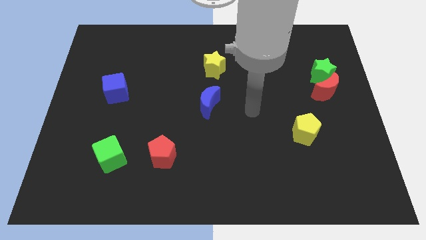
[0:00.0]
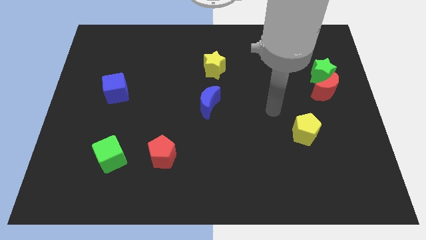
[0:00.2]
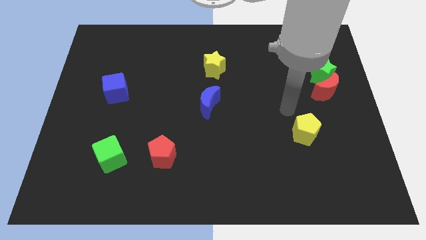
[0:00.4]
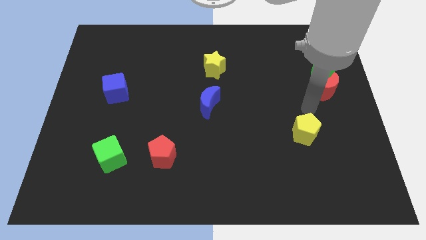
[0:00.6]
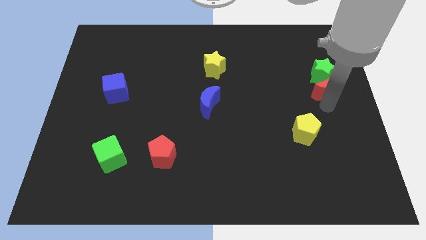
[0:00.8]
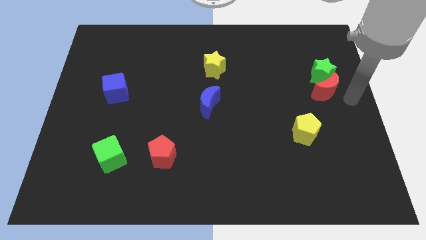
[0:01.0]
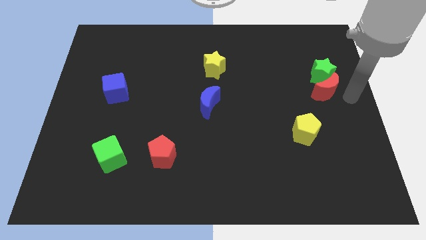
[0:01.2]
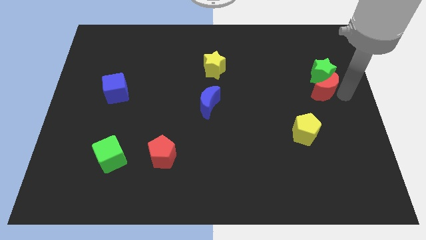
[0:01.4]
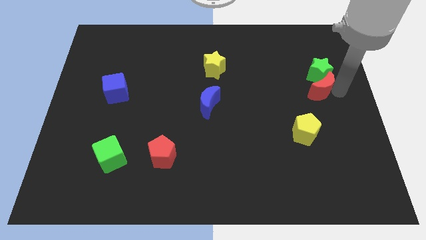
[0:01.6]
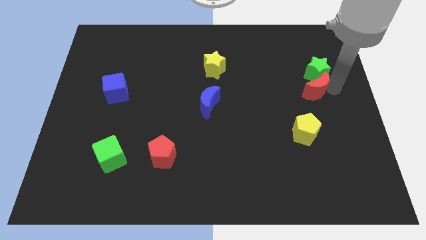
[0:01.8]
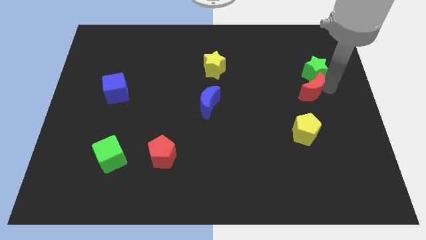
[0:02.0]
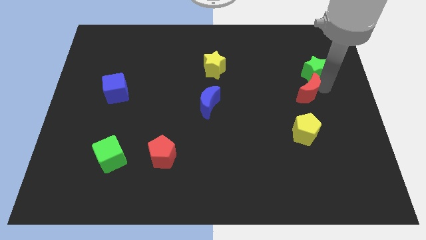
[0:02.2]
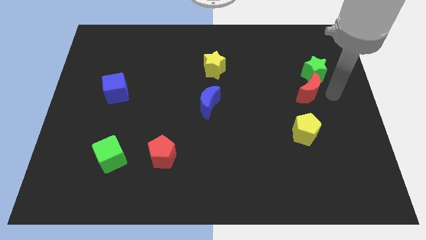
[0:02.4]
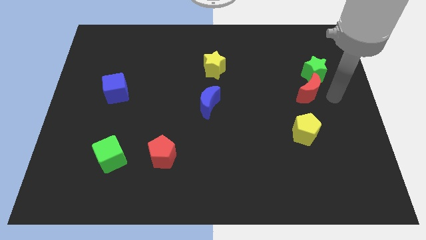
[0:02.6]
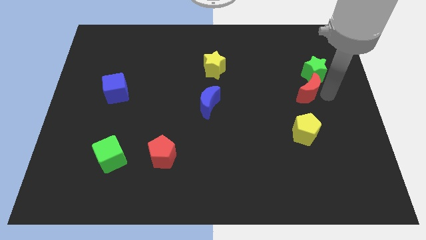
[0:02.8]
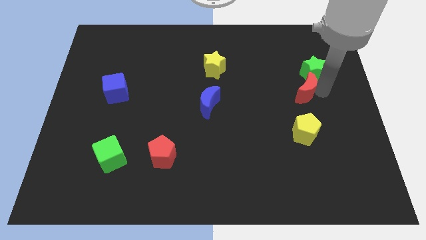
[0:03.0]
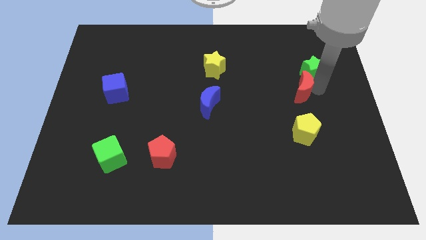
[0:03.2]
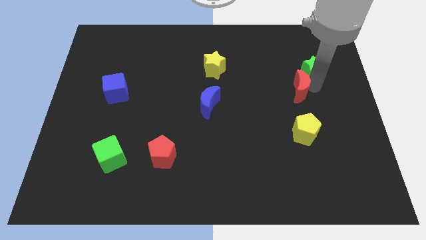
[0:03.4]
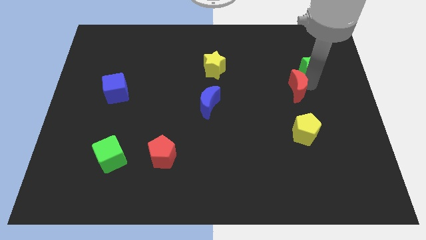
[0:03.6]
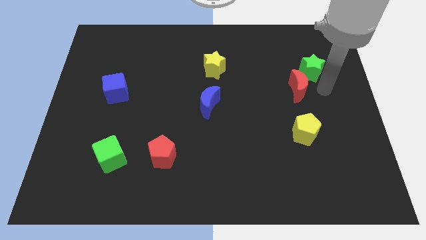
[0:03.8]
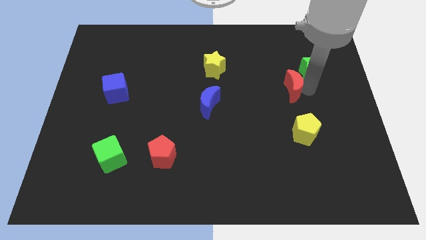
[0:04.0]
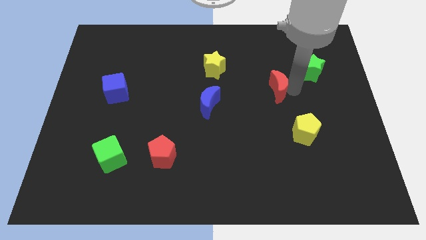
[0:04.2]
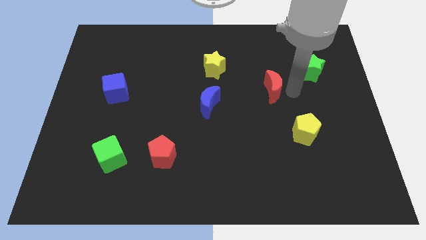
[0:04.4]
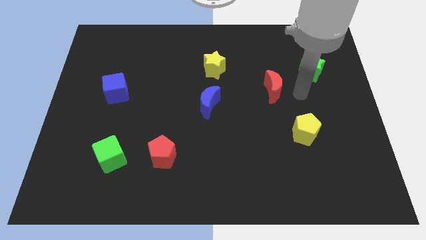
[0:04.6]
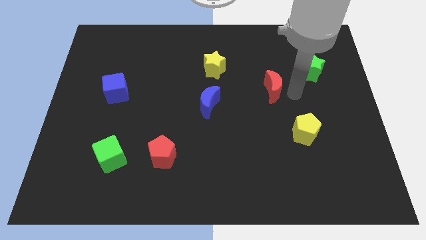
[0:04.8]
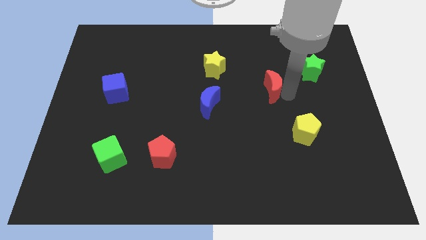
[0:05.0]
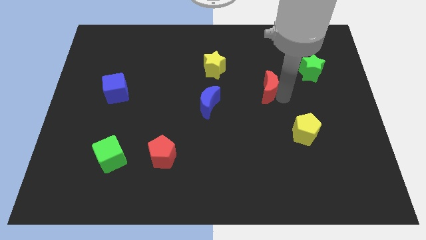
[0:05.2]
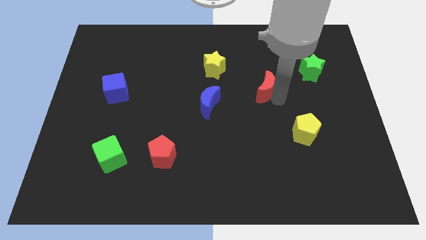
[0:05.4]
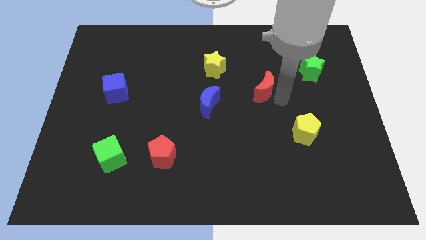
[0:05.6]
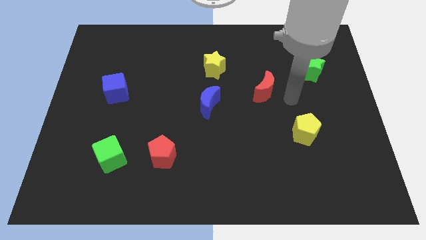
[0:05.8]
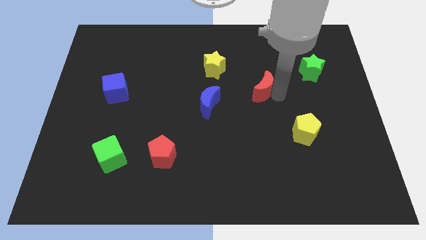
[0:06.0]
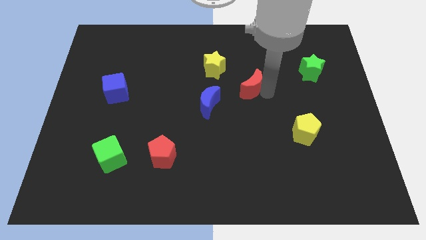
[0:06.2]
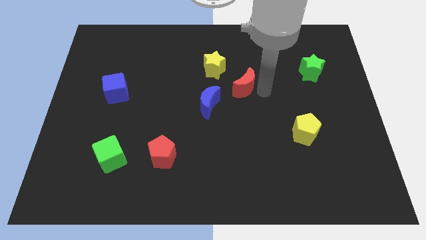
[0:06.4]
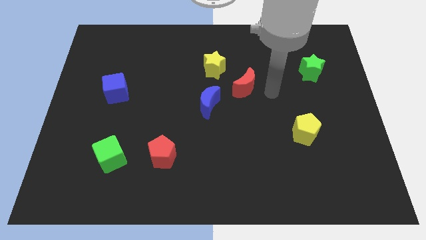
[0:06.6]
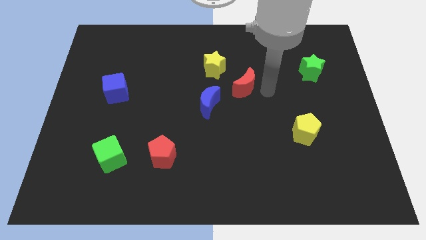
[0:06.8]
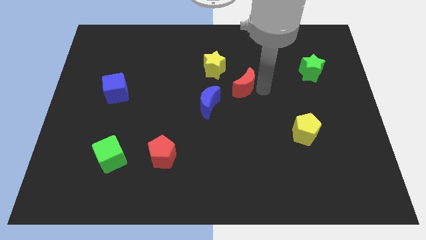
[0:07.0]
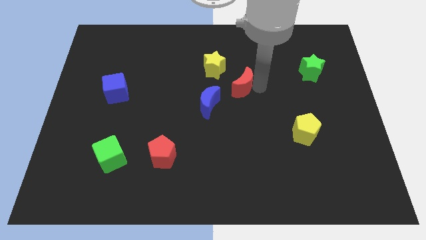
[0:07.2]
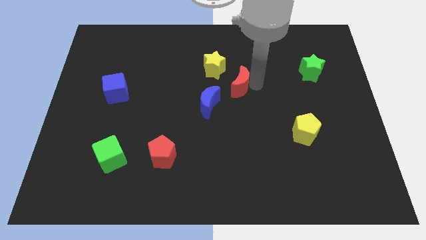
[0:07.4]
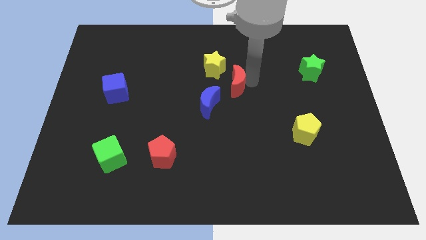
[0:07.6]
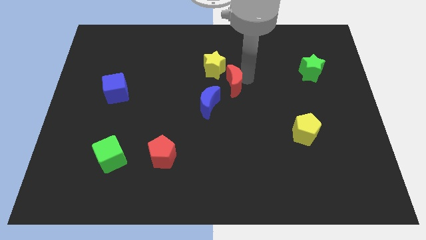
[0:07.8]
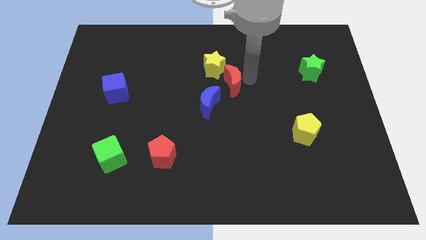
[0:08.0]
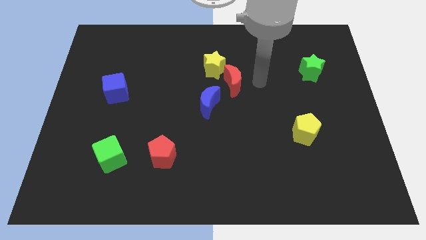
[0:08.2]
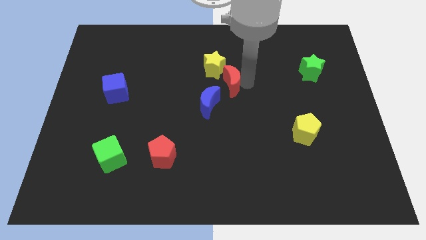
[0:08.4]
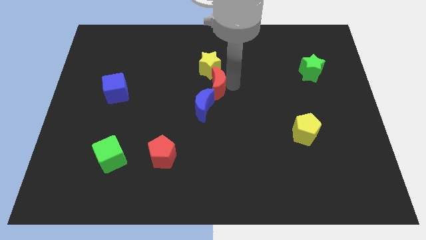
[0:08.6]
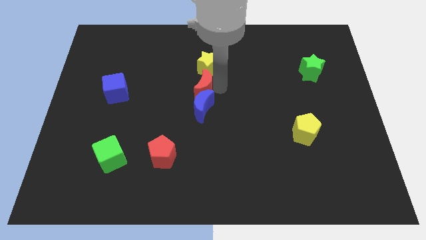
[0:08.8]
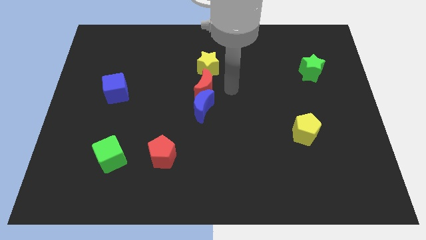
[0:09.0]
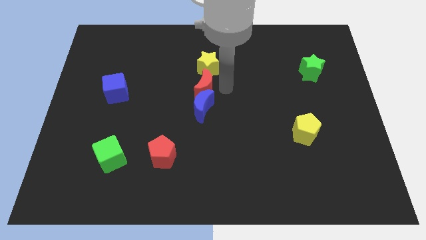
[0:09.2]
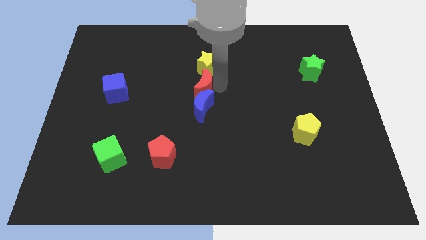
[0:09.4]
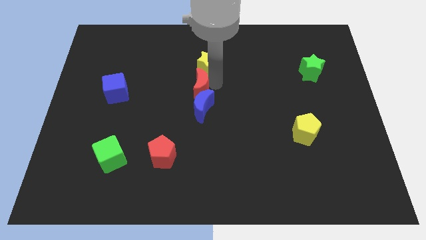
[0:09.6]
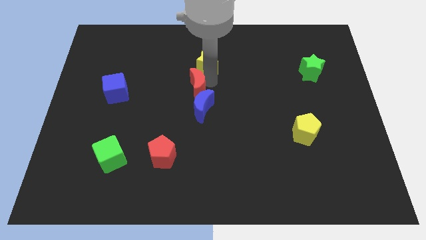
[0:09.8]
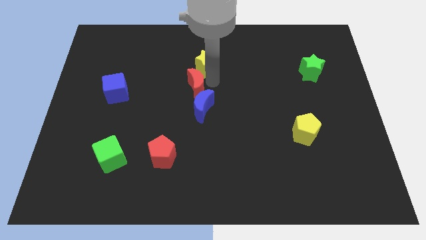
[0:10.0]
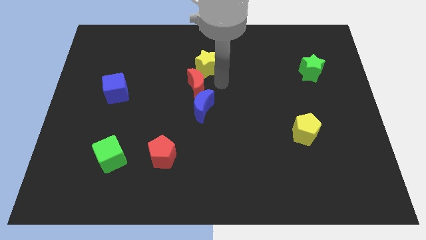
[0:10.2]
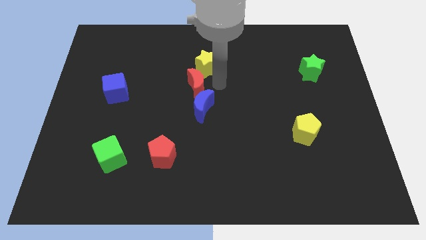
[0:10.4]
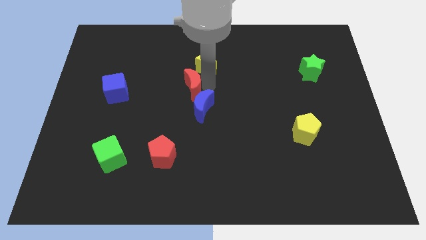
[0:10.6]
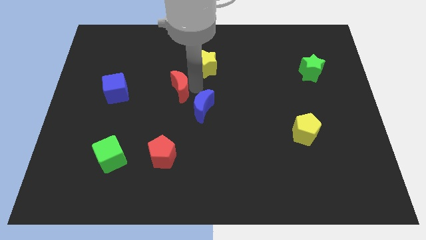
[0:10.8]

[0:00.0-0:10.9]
put the red moon just right of the blue cube

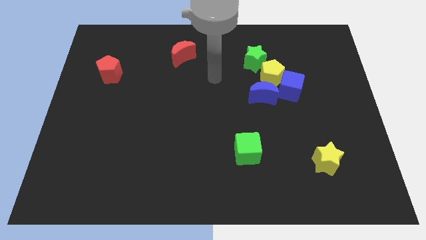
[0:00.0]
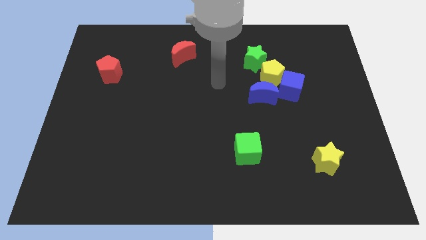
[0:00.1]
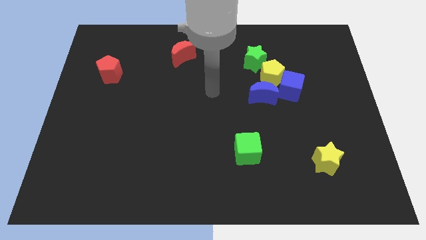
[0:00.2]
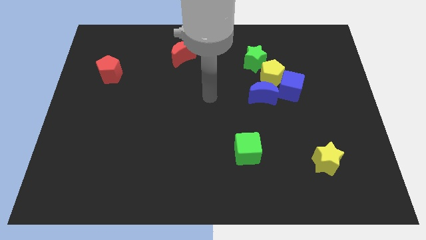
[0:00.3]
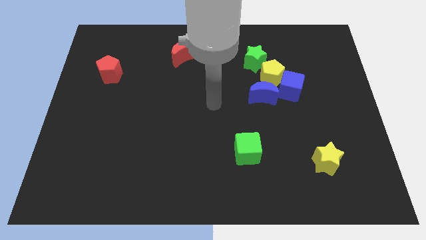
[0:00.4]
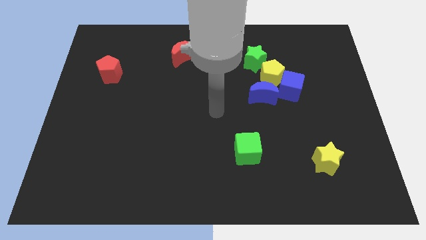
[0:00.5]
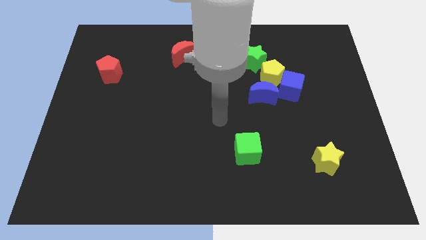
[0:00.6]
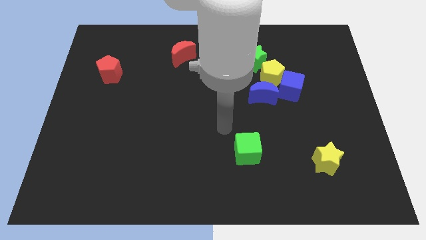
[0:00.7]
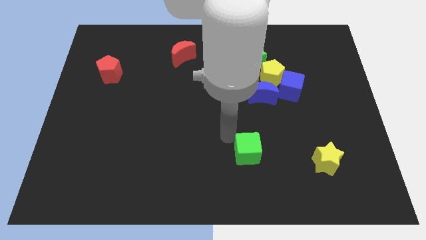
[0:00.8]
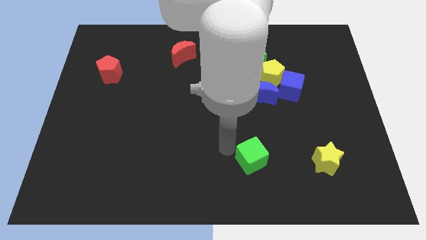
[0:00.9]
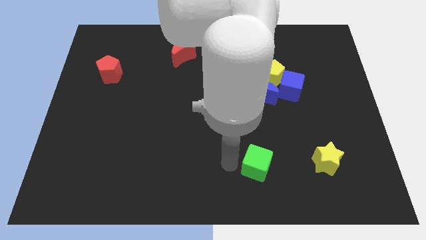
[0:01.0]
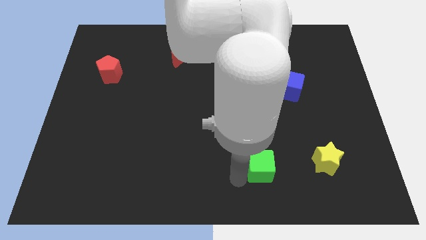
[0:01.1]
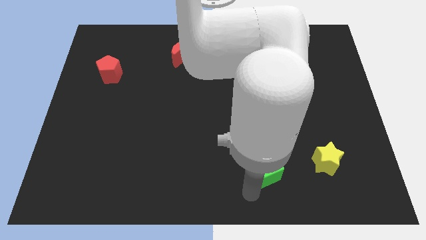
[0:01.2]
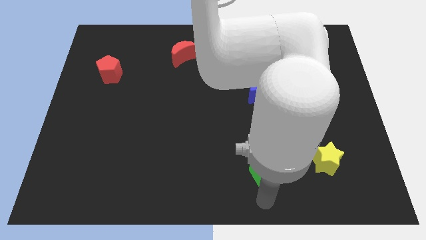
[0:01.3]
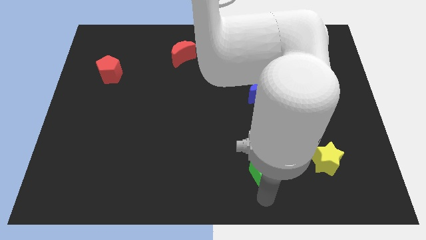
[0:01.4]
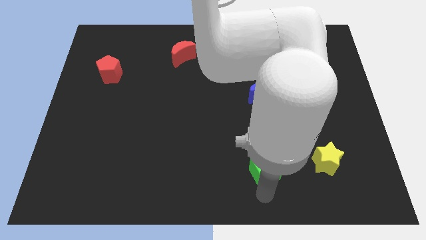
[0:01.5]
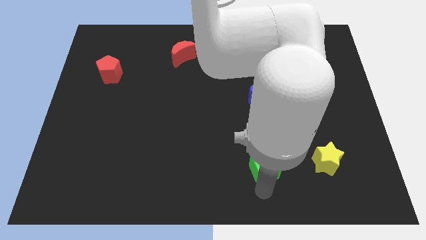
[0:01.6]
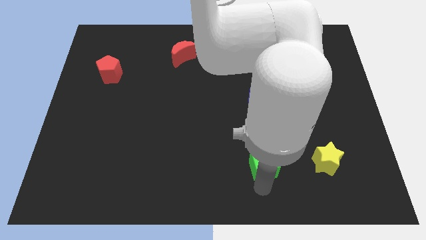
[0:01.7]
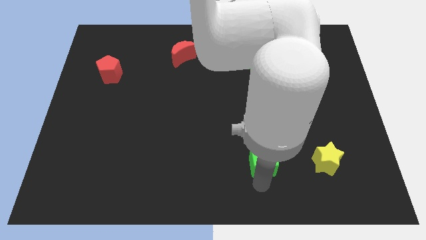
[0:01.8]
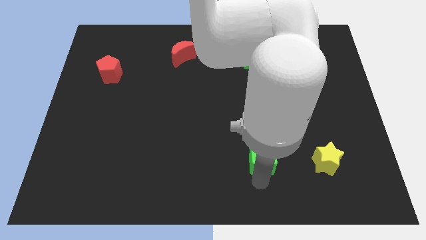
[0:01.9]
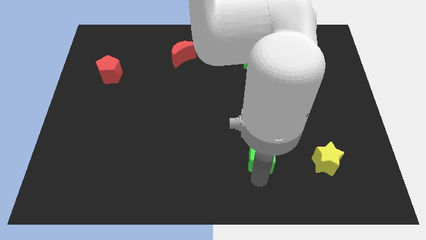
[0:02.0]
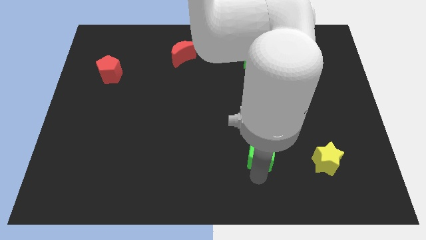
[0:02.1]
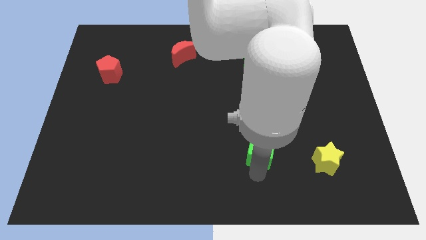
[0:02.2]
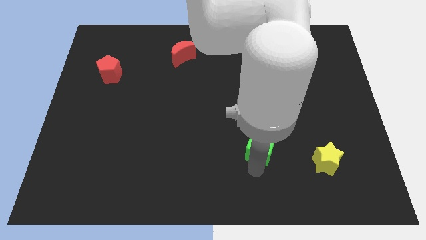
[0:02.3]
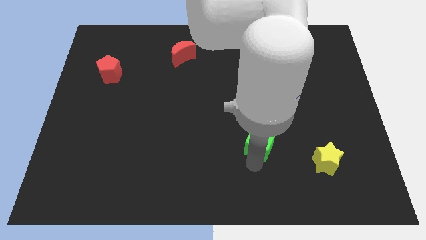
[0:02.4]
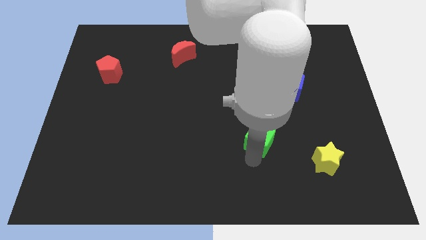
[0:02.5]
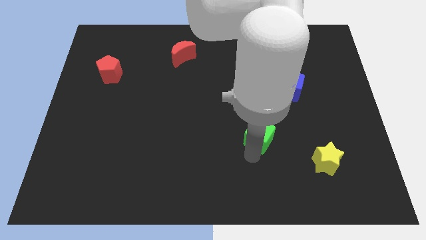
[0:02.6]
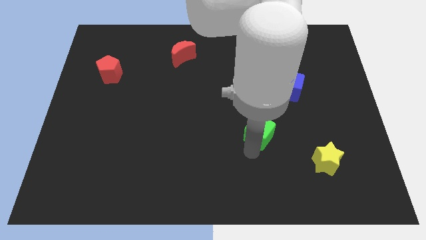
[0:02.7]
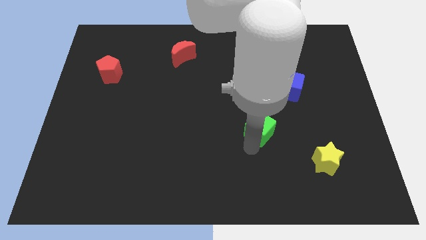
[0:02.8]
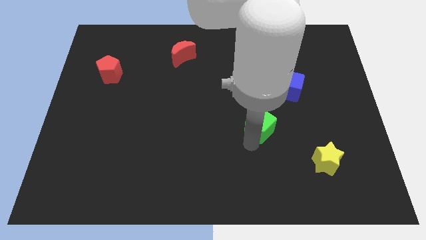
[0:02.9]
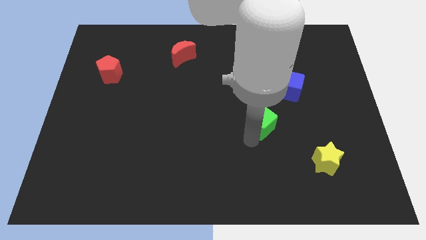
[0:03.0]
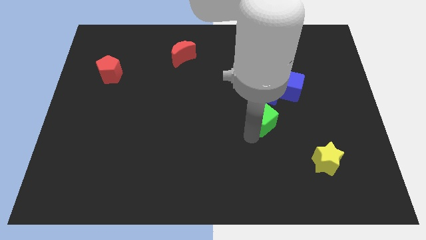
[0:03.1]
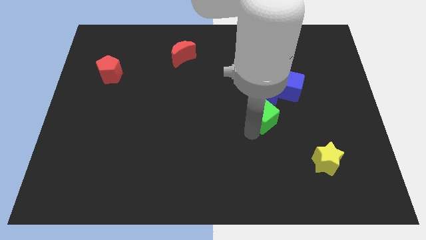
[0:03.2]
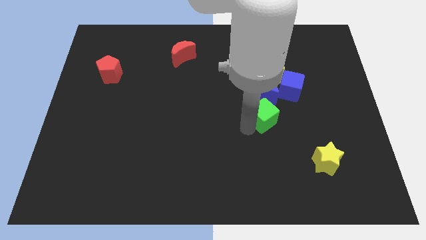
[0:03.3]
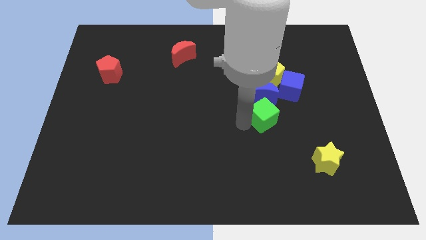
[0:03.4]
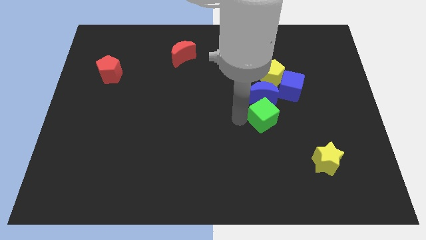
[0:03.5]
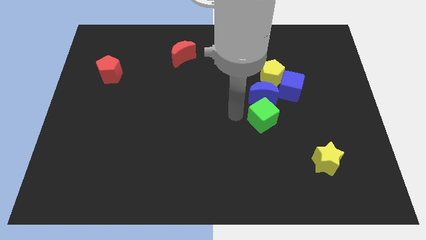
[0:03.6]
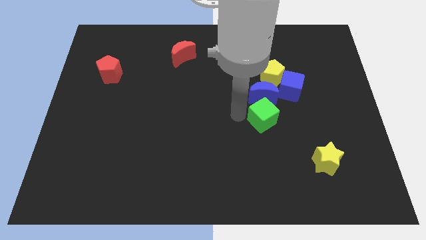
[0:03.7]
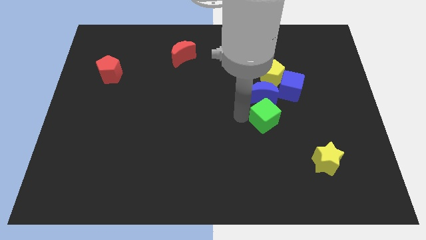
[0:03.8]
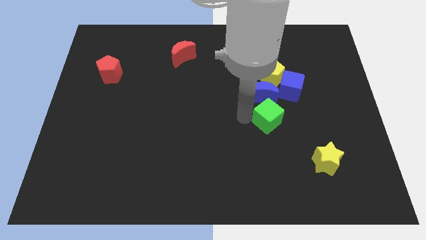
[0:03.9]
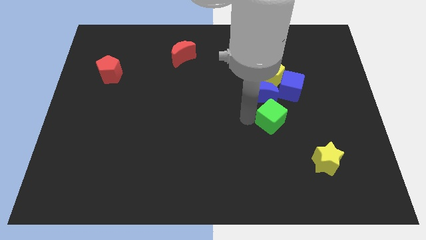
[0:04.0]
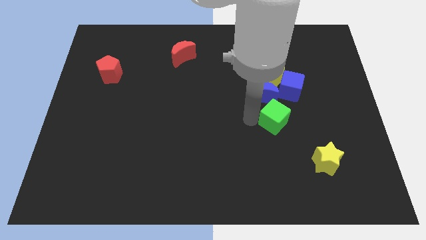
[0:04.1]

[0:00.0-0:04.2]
slide the green cube below the blue cube
